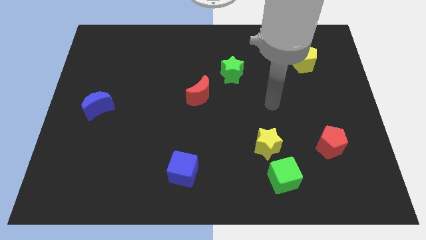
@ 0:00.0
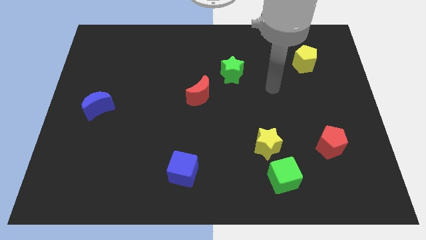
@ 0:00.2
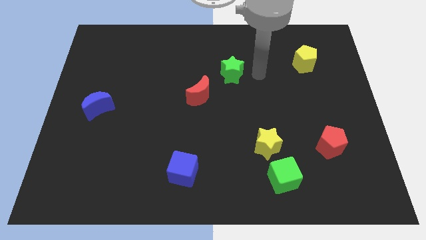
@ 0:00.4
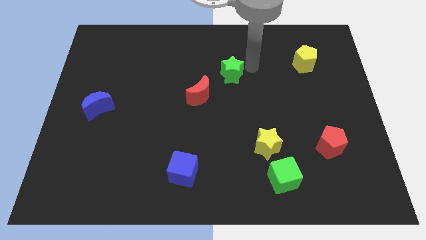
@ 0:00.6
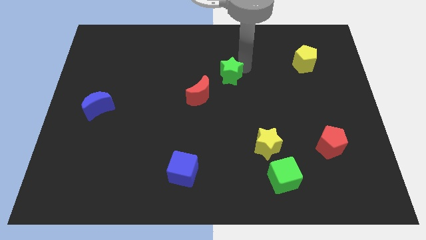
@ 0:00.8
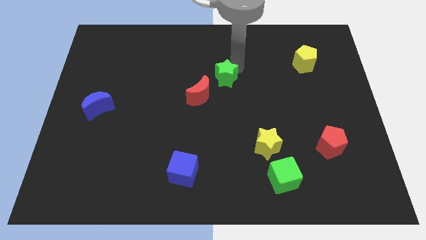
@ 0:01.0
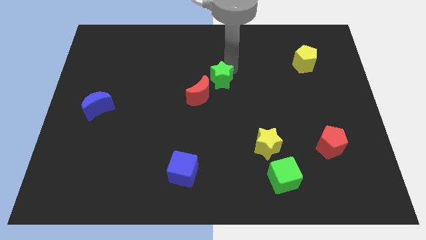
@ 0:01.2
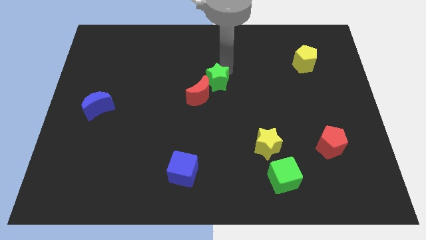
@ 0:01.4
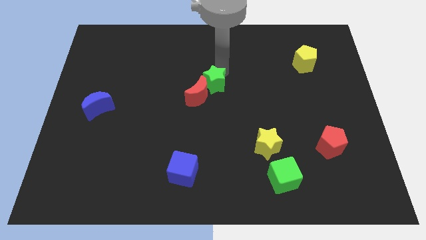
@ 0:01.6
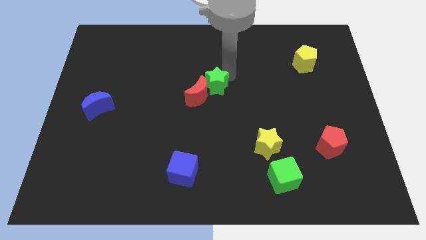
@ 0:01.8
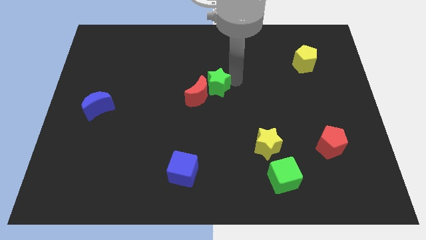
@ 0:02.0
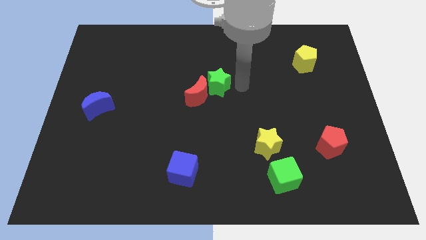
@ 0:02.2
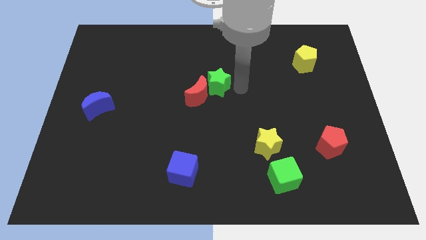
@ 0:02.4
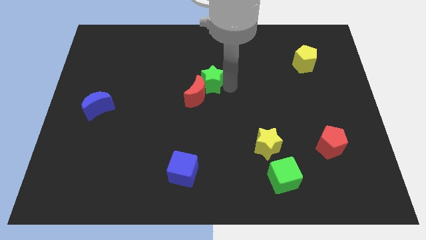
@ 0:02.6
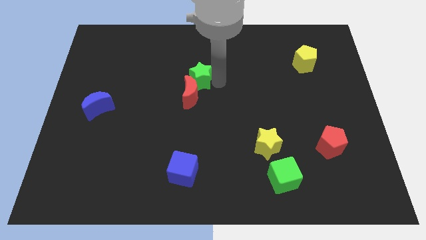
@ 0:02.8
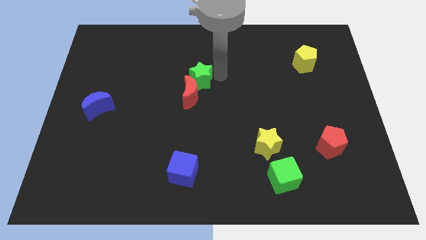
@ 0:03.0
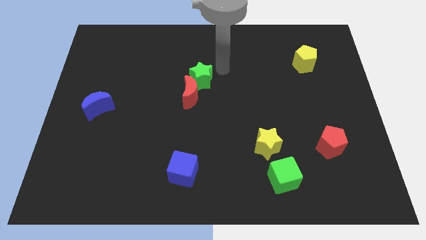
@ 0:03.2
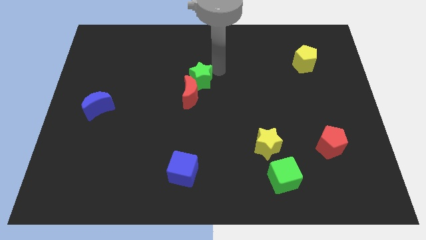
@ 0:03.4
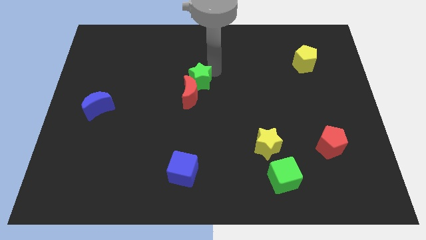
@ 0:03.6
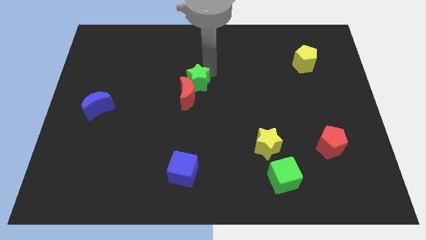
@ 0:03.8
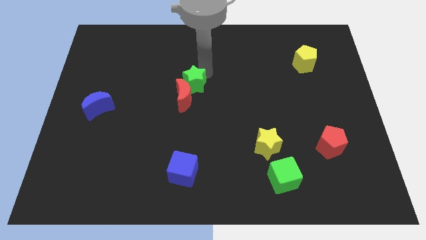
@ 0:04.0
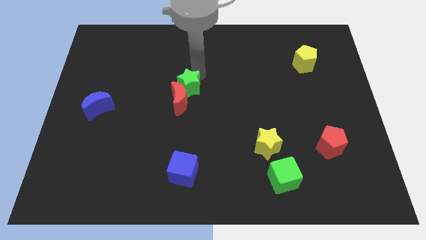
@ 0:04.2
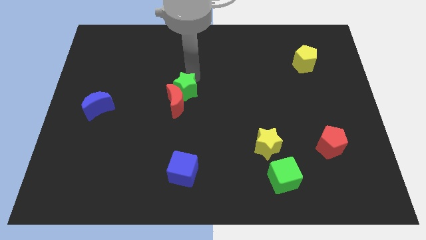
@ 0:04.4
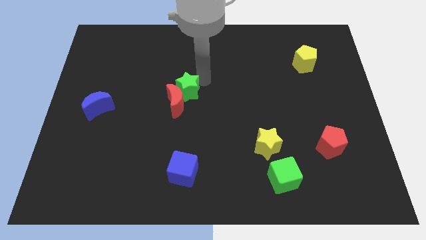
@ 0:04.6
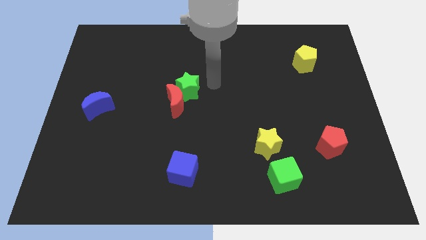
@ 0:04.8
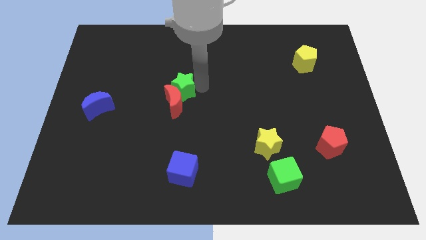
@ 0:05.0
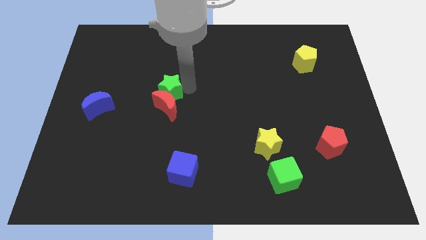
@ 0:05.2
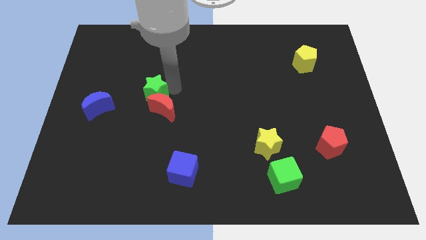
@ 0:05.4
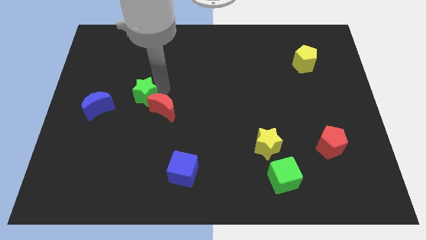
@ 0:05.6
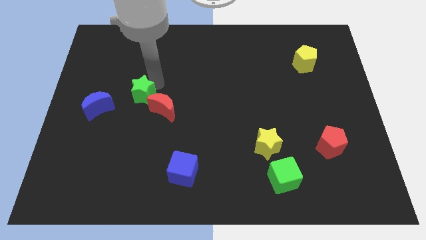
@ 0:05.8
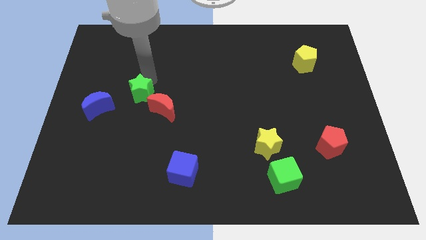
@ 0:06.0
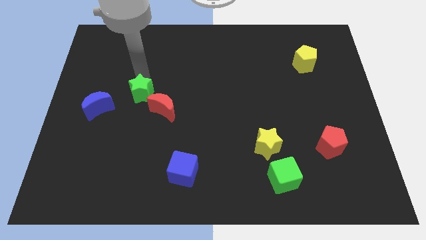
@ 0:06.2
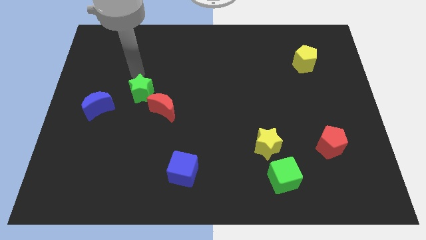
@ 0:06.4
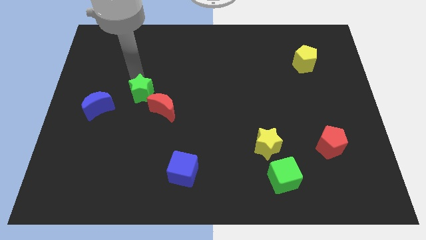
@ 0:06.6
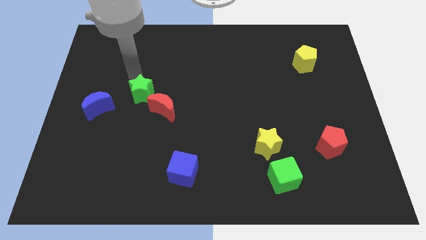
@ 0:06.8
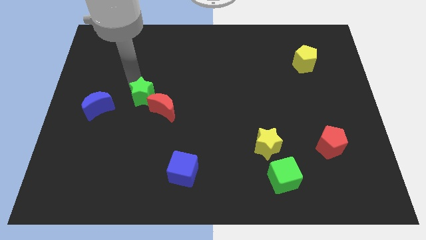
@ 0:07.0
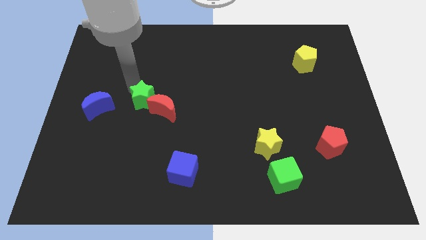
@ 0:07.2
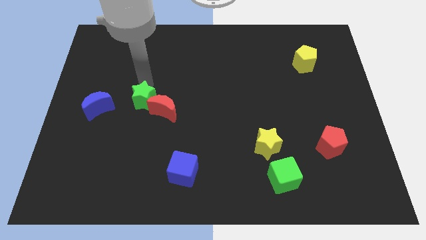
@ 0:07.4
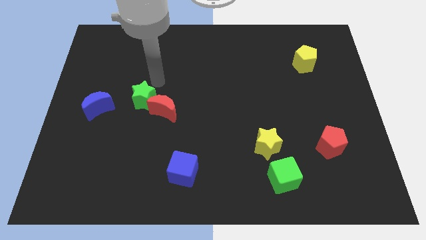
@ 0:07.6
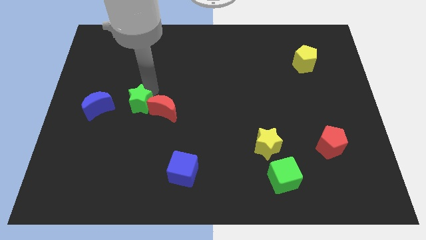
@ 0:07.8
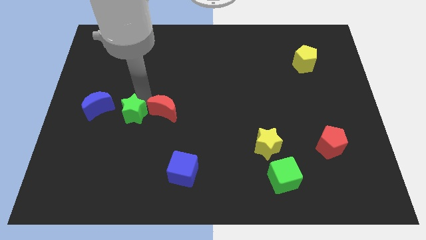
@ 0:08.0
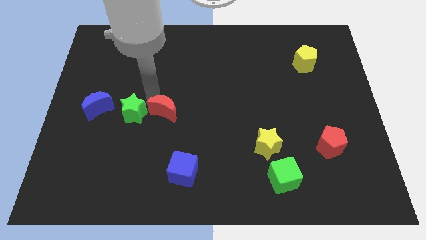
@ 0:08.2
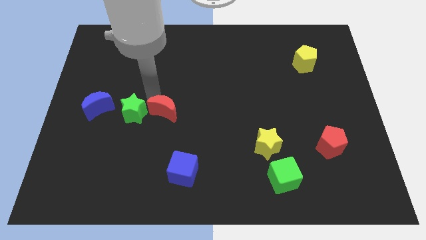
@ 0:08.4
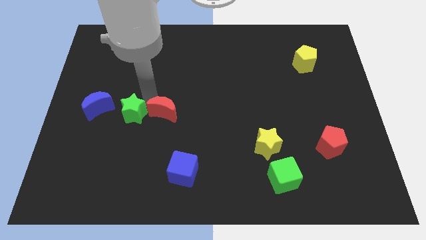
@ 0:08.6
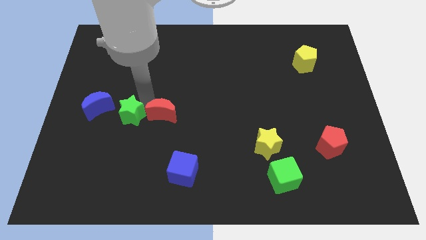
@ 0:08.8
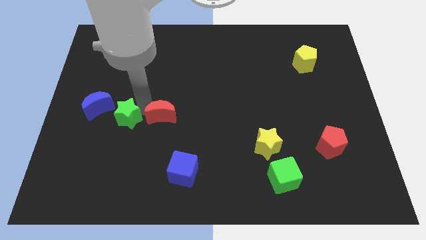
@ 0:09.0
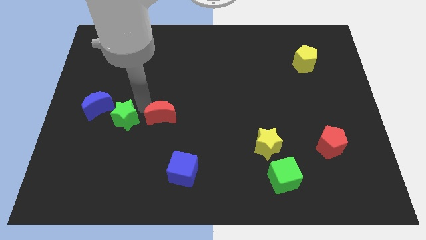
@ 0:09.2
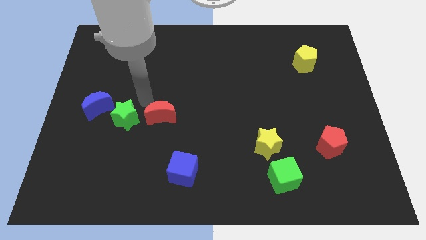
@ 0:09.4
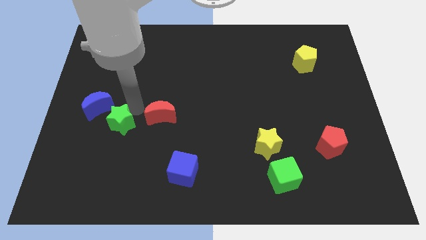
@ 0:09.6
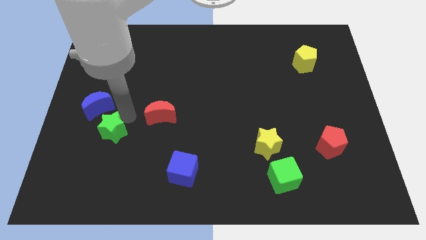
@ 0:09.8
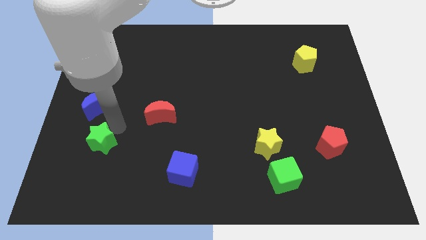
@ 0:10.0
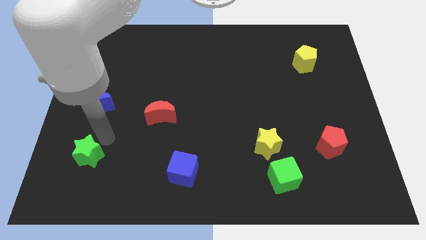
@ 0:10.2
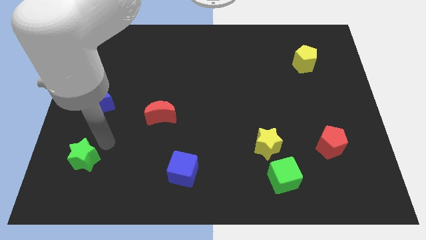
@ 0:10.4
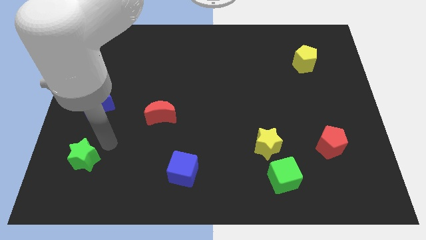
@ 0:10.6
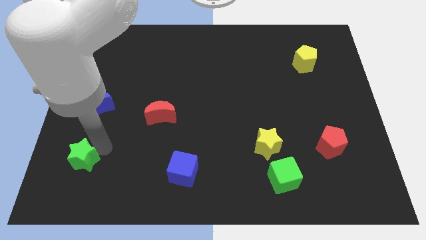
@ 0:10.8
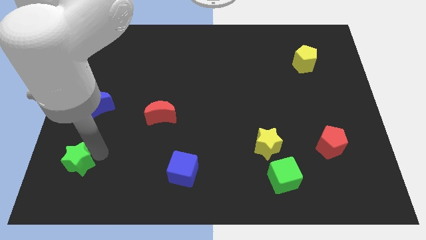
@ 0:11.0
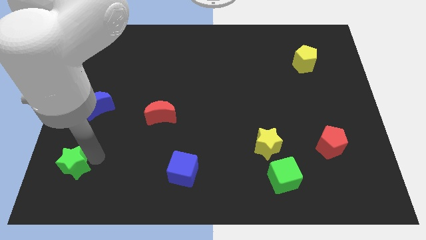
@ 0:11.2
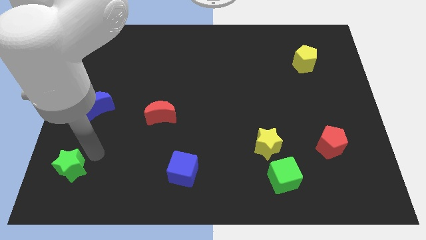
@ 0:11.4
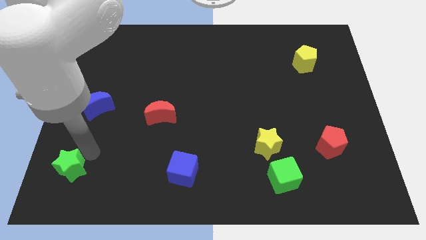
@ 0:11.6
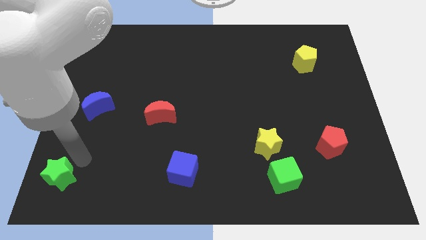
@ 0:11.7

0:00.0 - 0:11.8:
move the green star to the bottom left of the board
